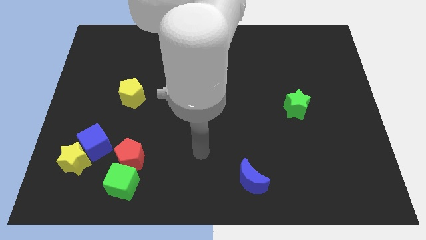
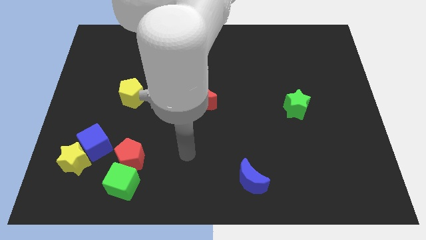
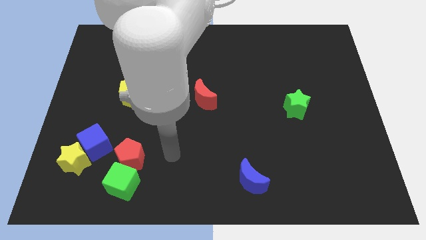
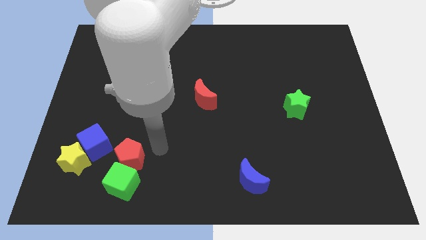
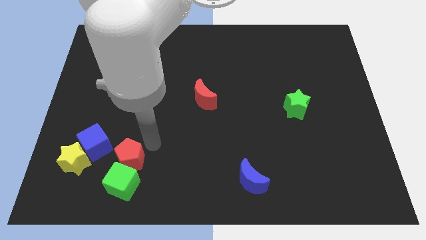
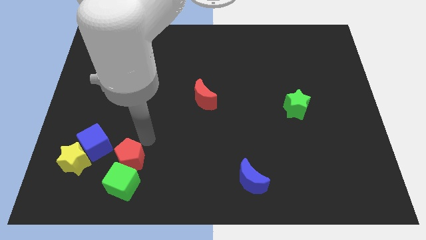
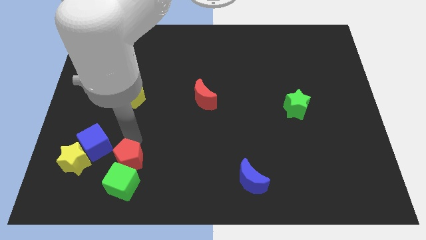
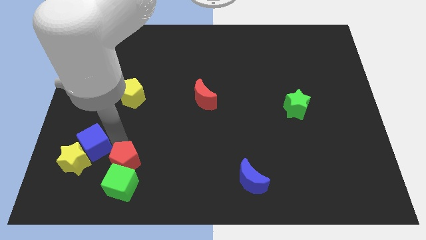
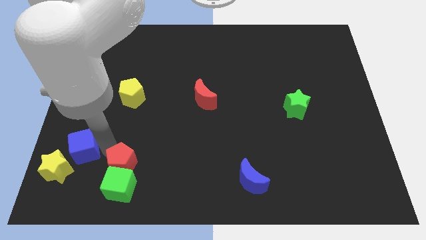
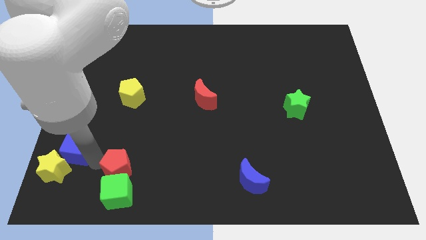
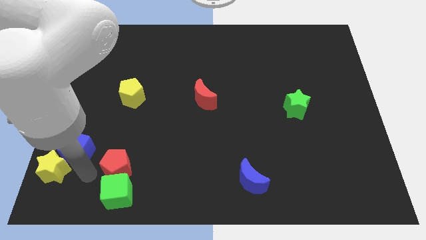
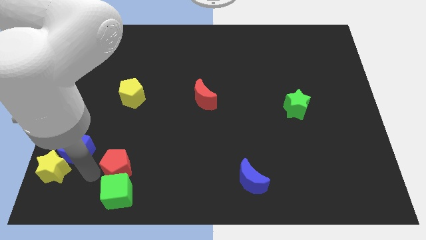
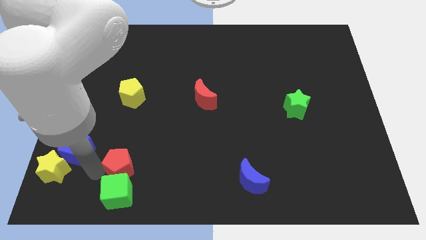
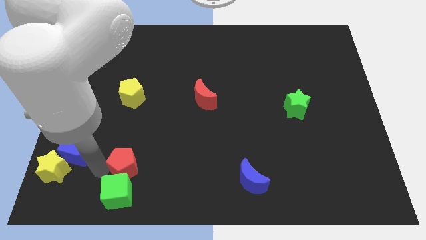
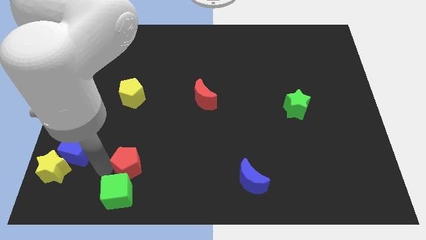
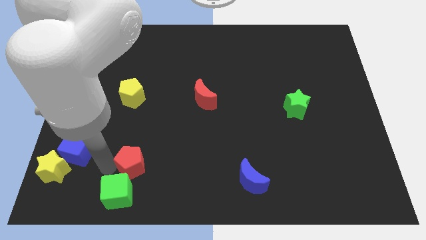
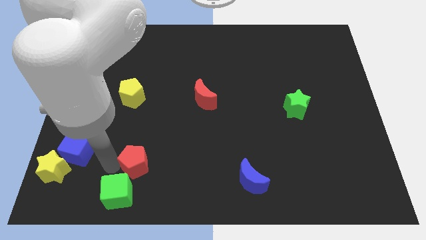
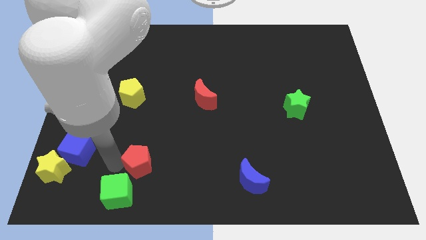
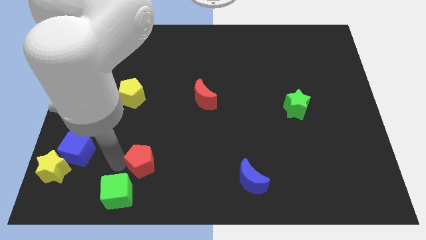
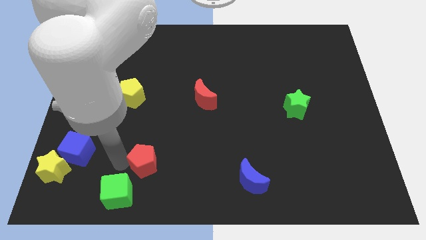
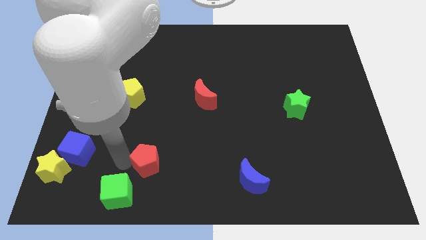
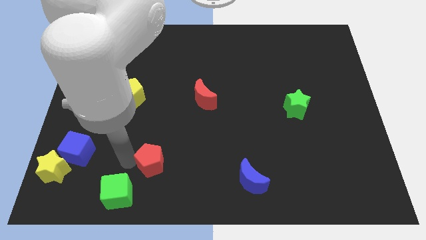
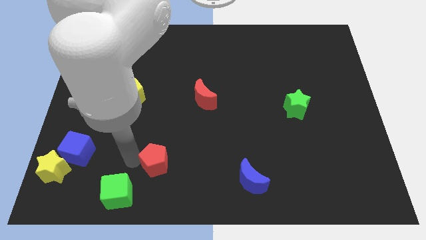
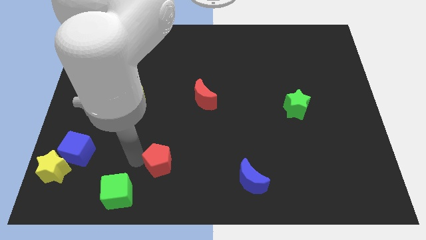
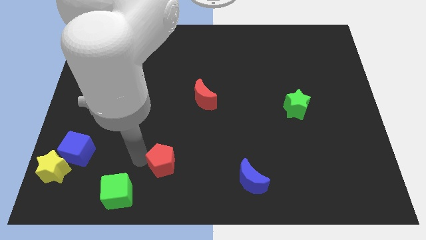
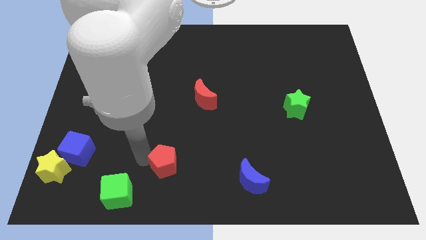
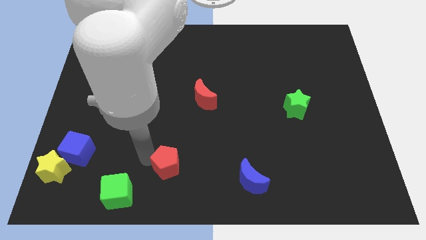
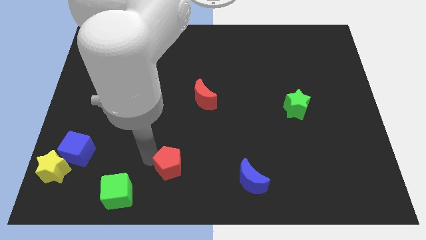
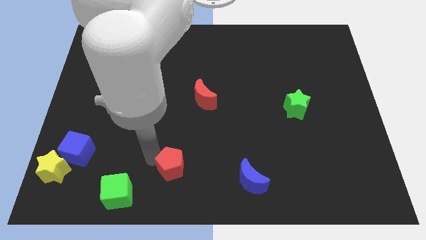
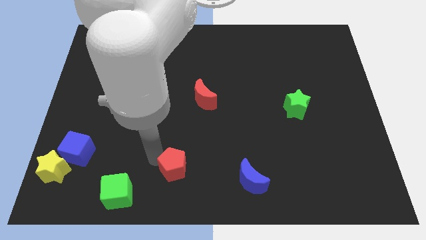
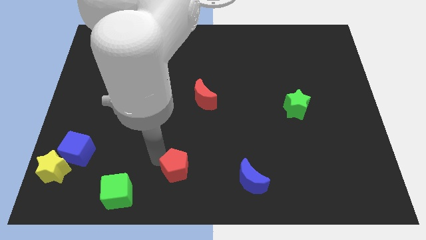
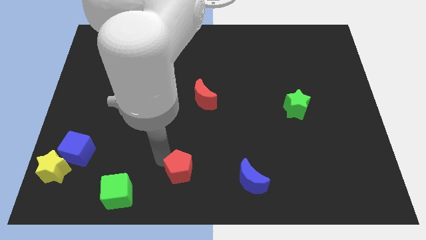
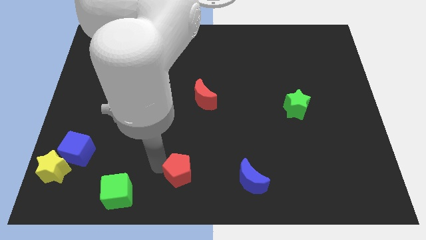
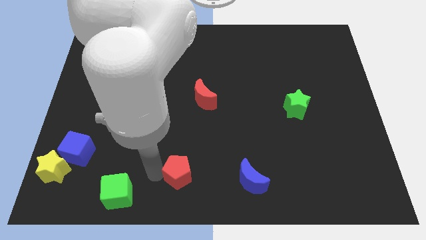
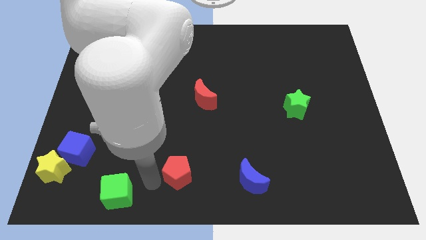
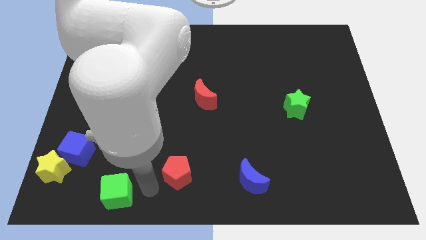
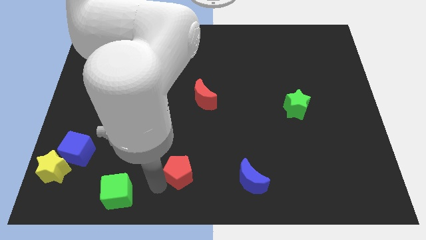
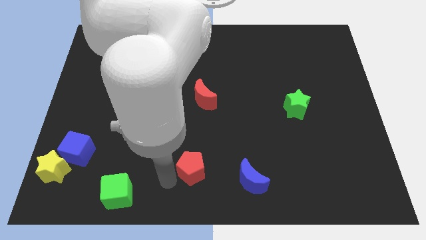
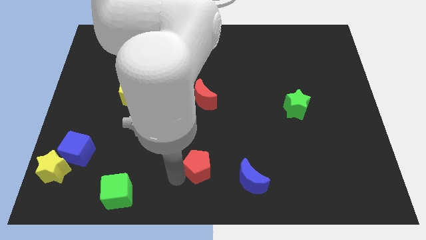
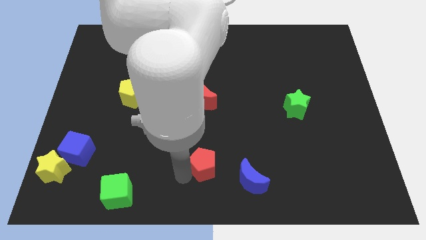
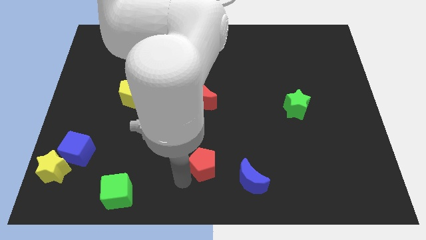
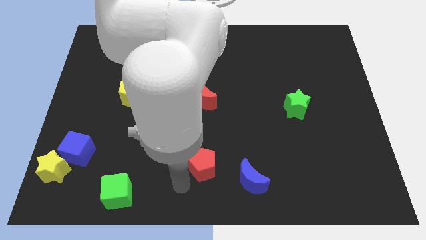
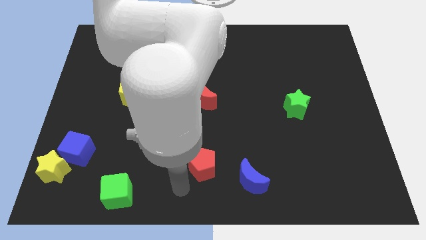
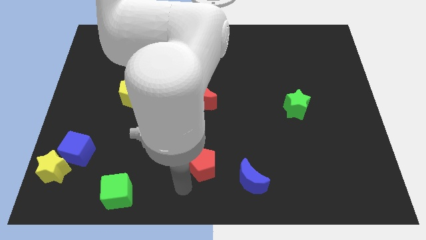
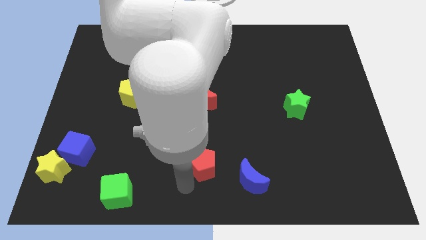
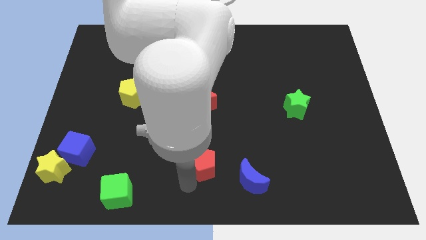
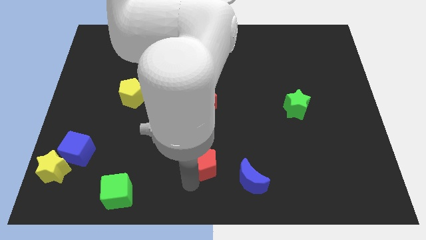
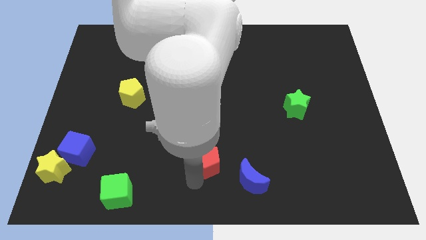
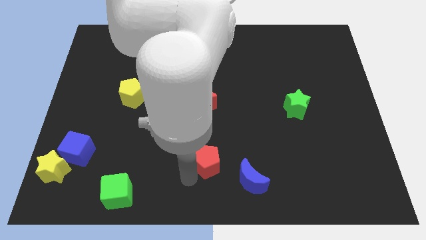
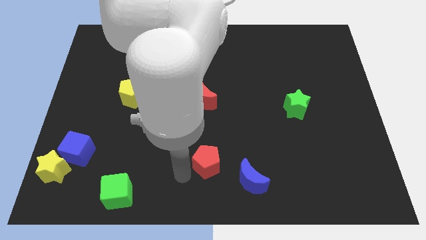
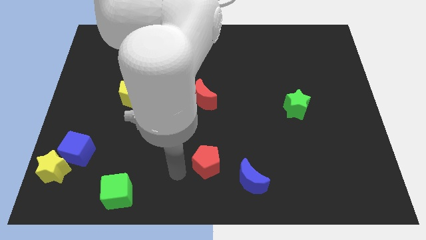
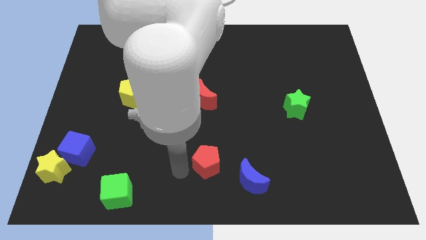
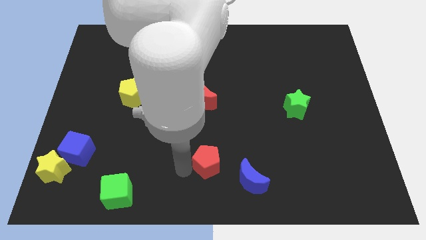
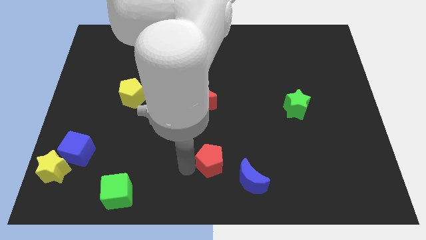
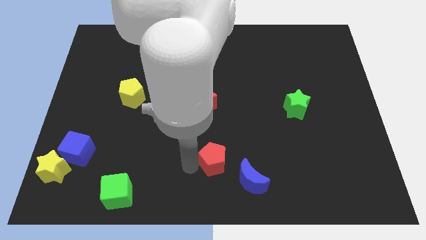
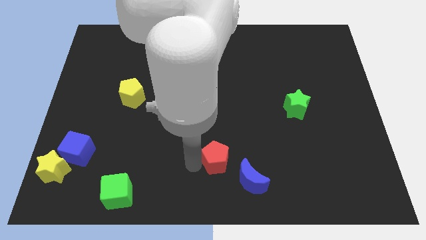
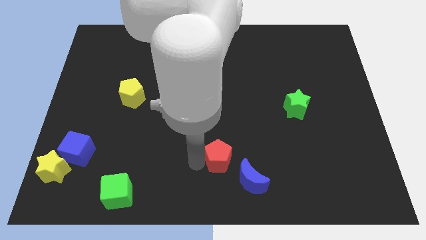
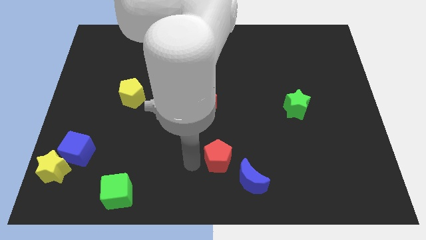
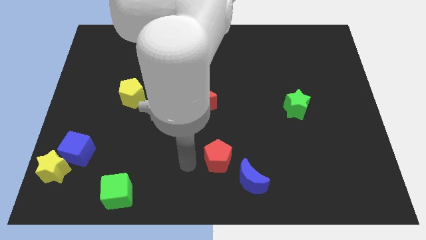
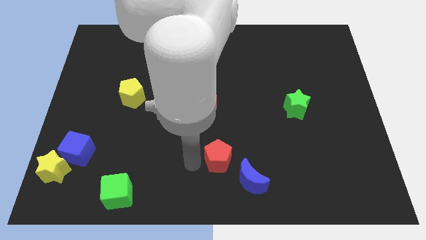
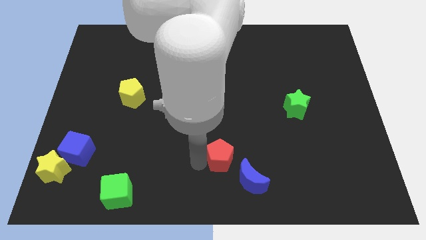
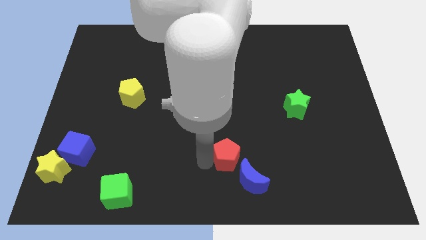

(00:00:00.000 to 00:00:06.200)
push the red pentagon to the right

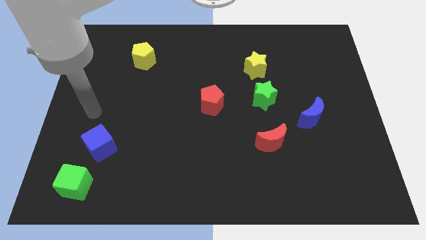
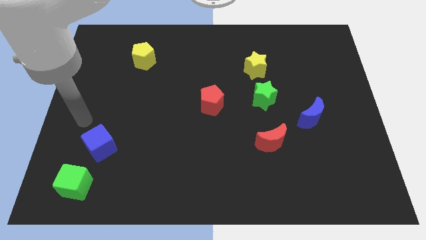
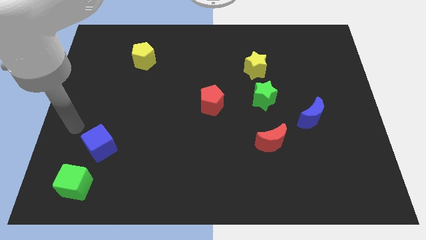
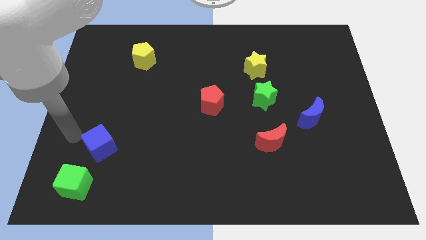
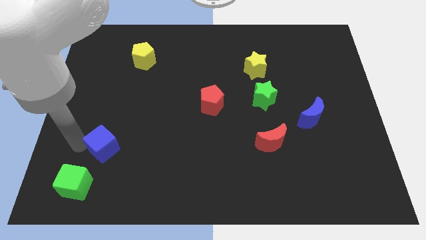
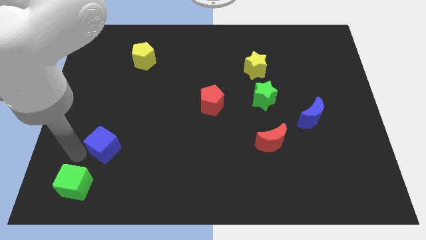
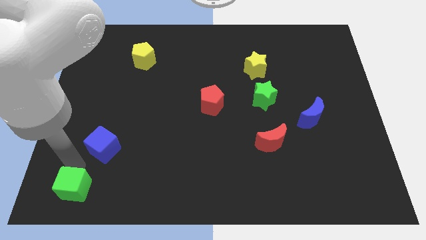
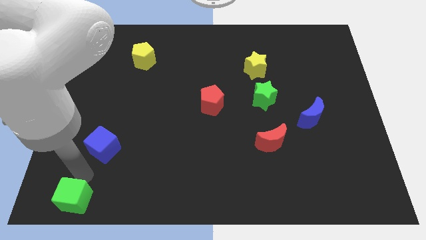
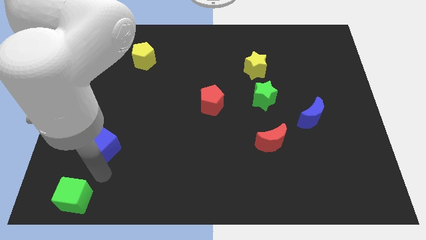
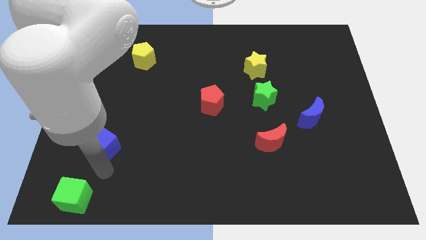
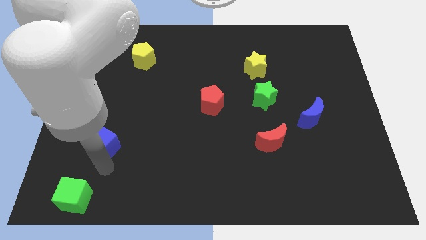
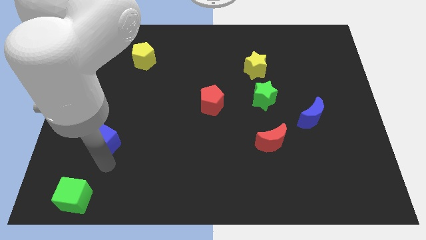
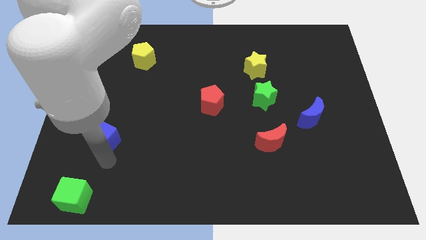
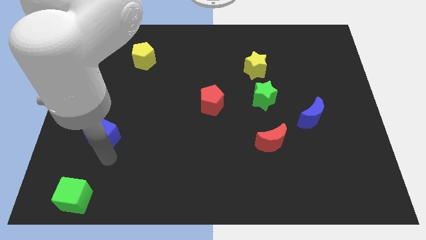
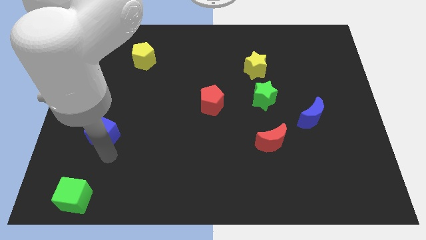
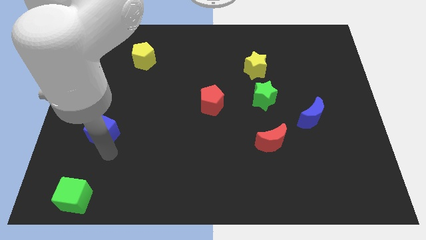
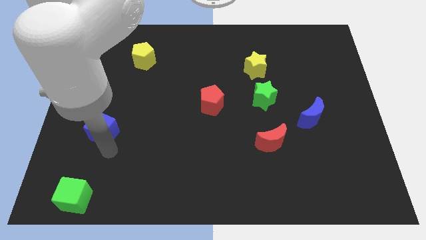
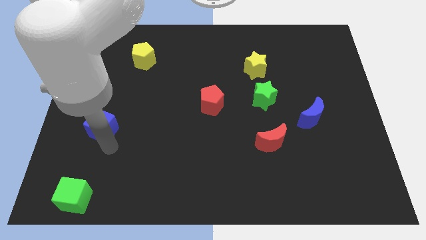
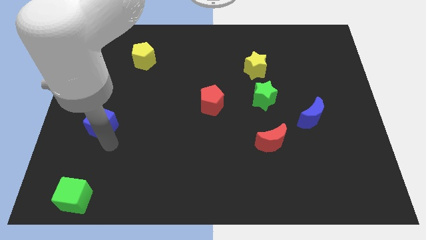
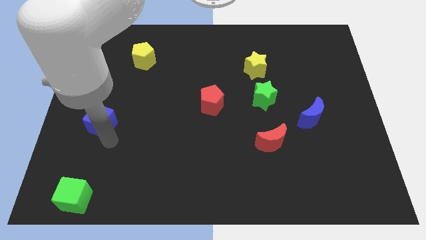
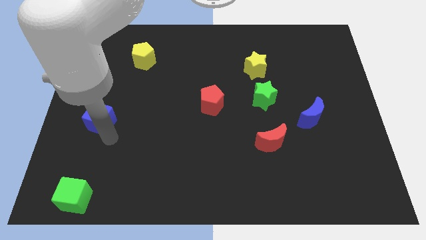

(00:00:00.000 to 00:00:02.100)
move the blue cube upwards somewhat
